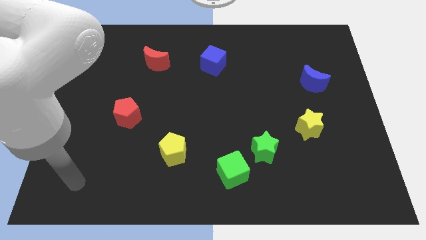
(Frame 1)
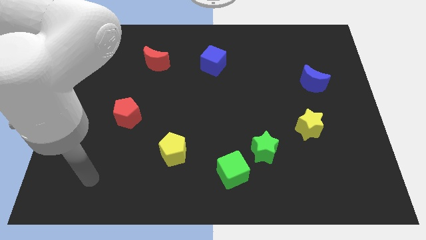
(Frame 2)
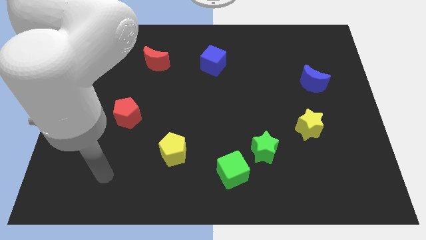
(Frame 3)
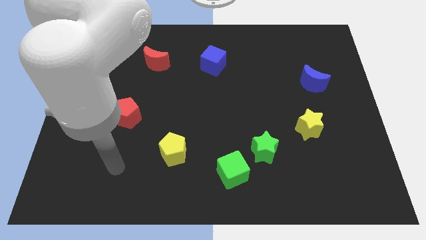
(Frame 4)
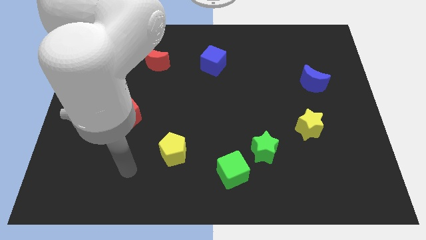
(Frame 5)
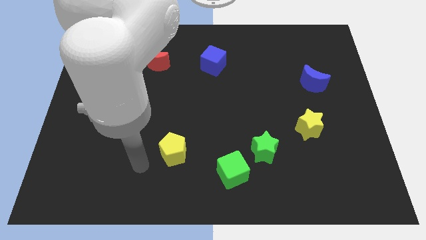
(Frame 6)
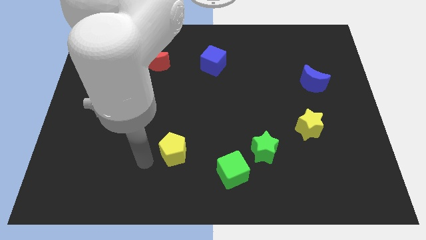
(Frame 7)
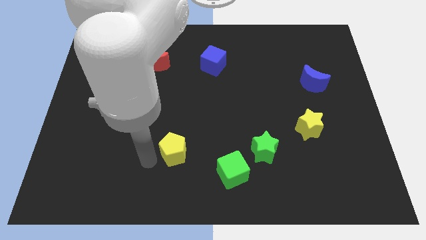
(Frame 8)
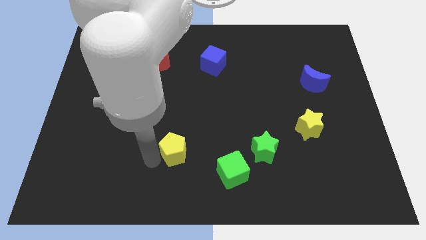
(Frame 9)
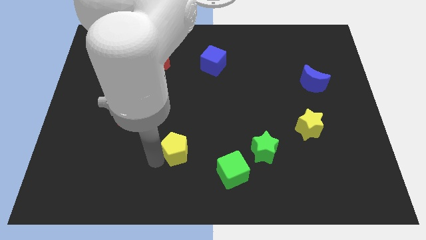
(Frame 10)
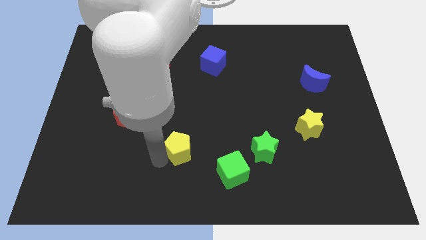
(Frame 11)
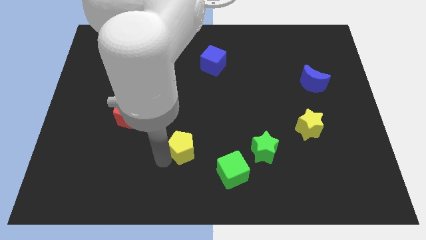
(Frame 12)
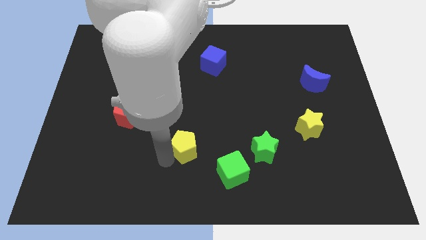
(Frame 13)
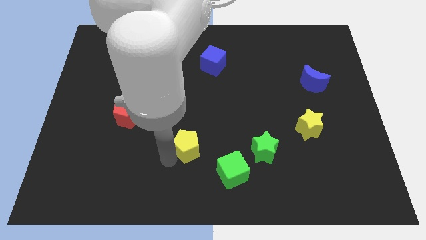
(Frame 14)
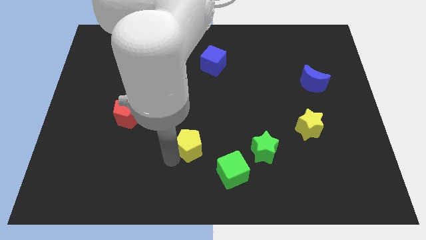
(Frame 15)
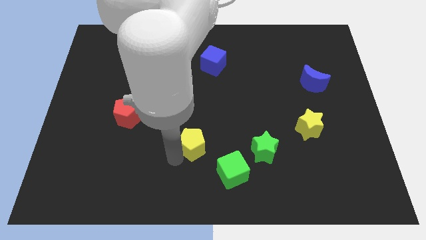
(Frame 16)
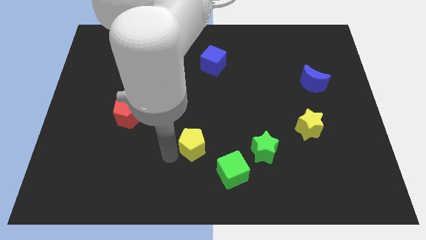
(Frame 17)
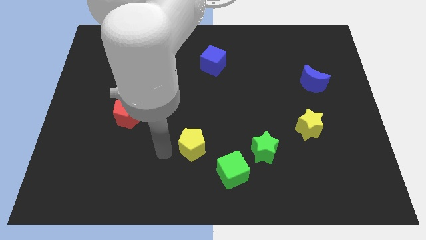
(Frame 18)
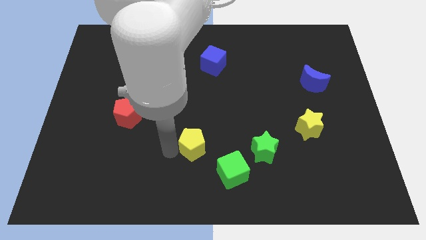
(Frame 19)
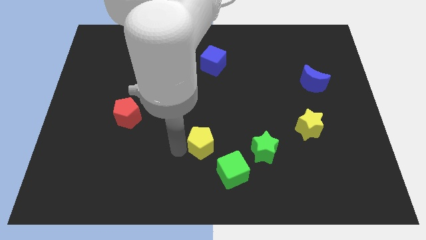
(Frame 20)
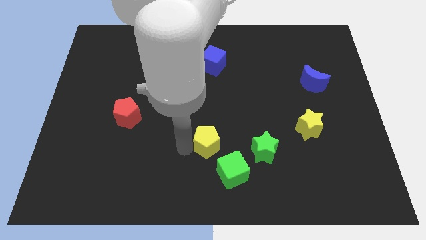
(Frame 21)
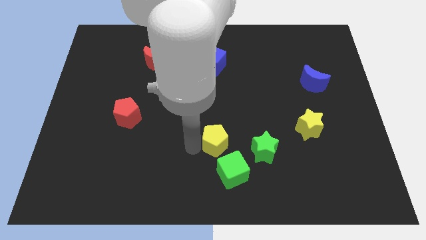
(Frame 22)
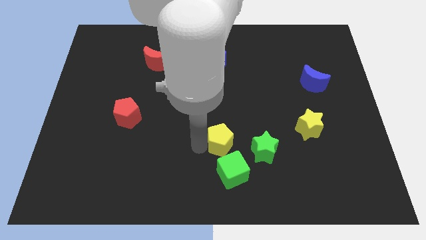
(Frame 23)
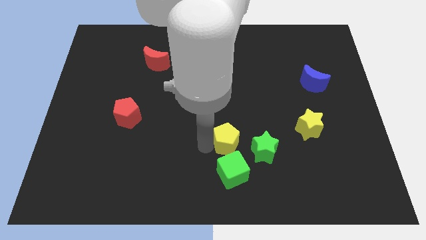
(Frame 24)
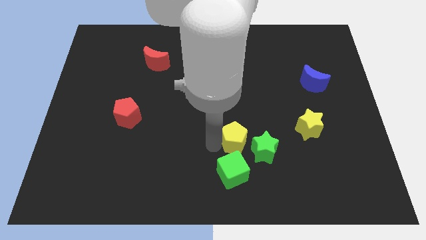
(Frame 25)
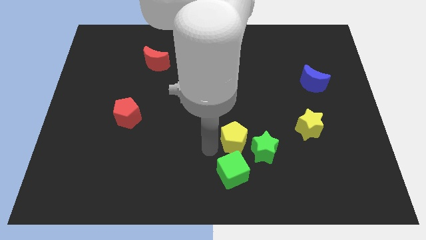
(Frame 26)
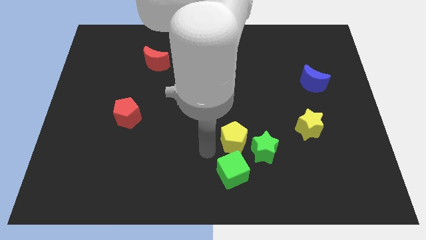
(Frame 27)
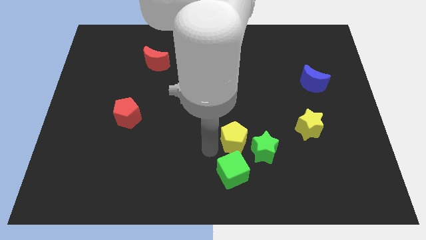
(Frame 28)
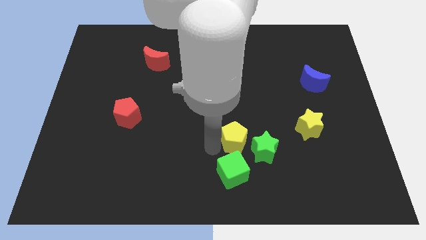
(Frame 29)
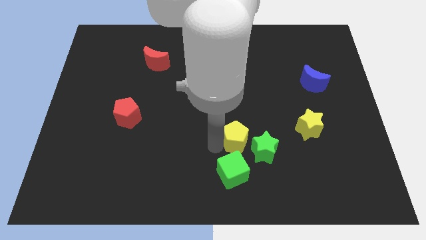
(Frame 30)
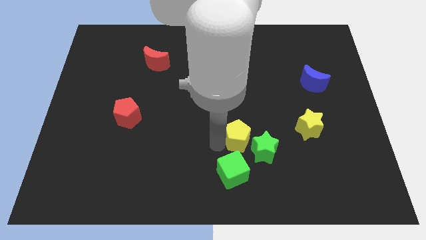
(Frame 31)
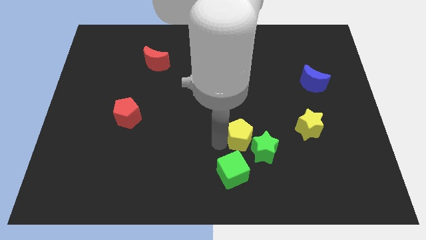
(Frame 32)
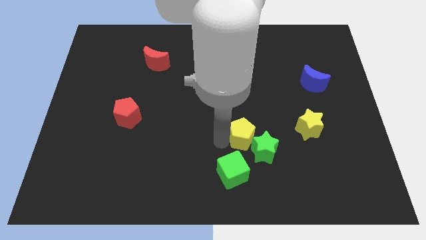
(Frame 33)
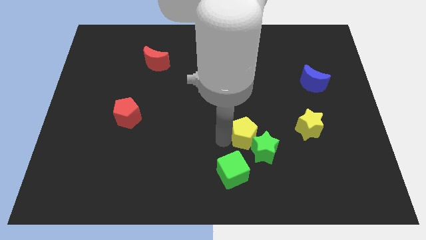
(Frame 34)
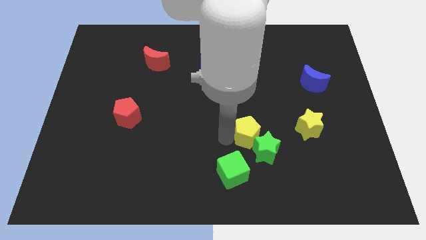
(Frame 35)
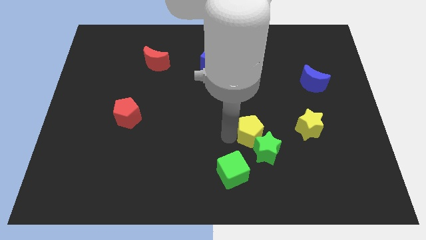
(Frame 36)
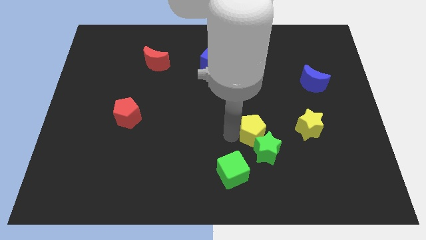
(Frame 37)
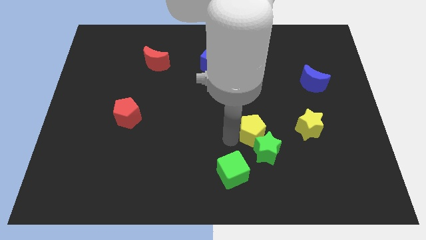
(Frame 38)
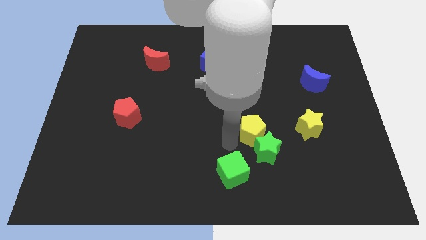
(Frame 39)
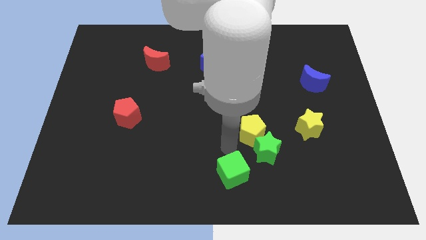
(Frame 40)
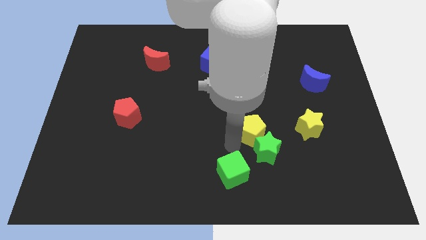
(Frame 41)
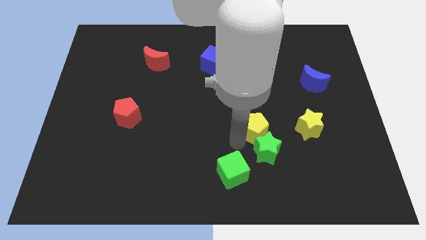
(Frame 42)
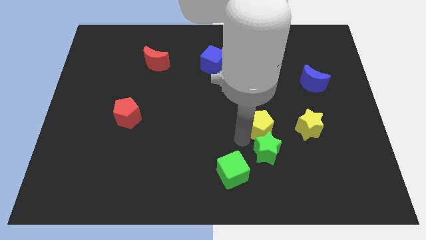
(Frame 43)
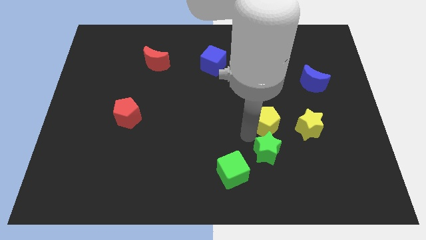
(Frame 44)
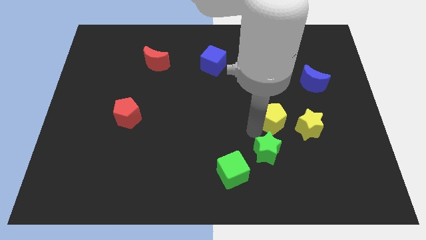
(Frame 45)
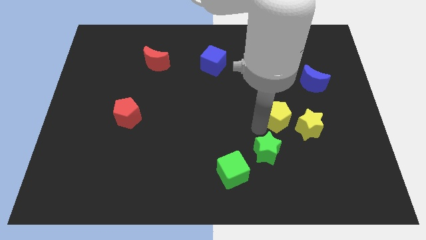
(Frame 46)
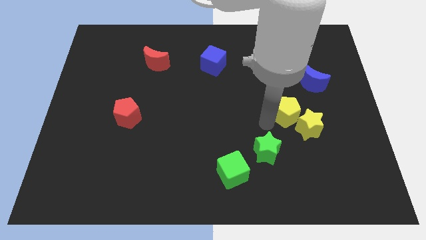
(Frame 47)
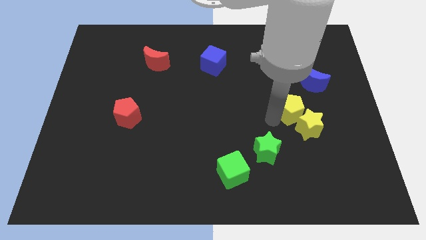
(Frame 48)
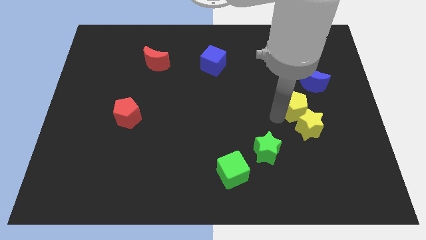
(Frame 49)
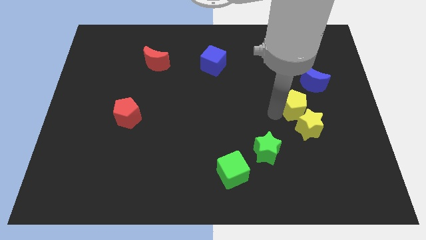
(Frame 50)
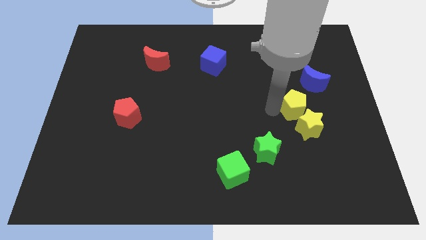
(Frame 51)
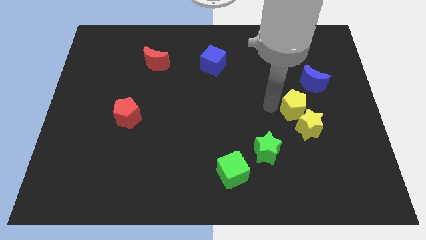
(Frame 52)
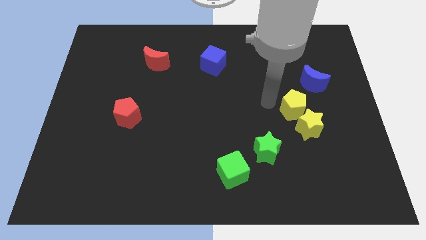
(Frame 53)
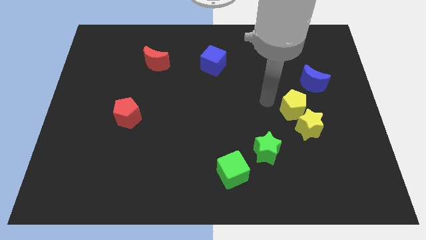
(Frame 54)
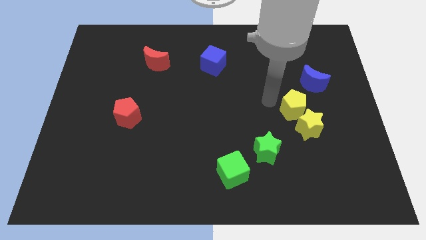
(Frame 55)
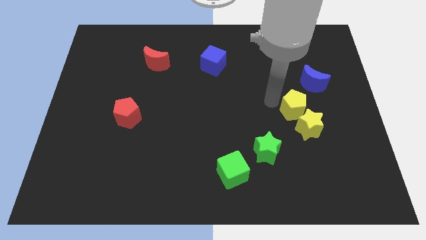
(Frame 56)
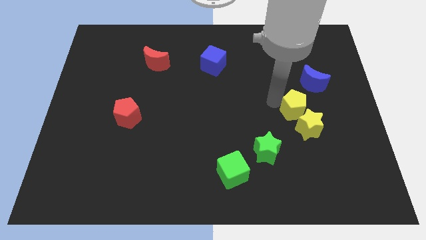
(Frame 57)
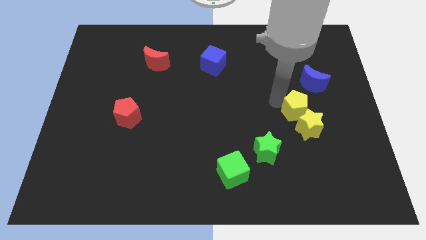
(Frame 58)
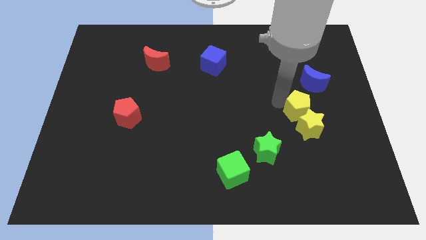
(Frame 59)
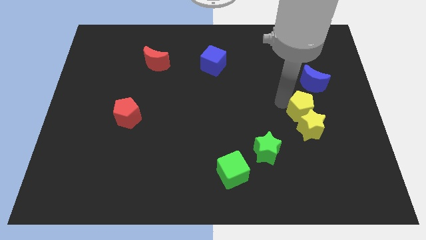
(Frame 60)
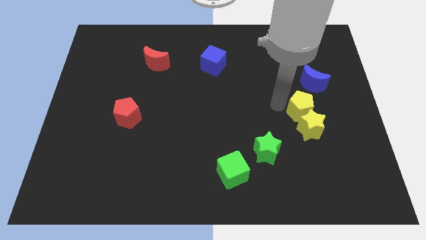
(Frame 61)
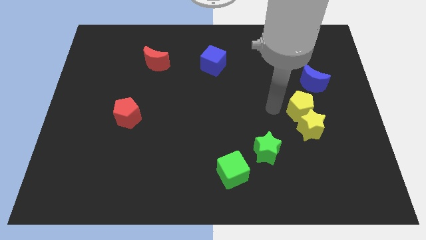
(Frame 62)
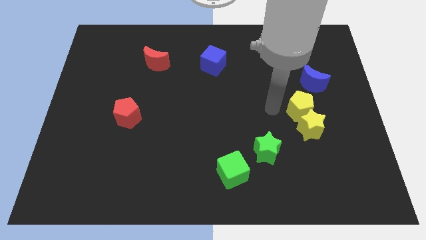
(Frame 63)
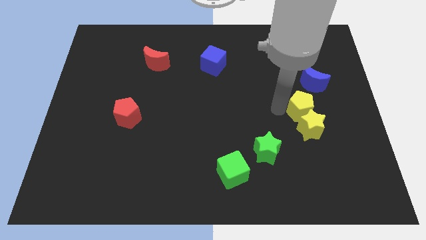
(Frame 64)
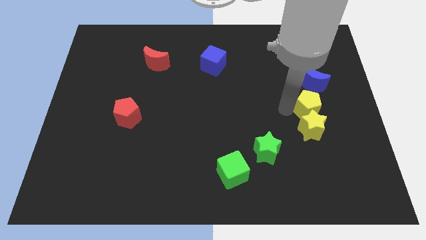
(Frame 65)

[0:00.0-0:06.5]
put the yellow pentagon to the top right of the yellow star
